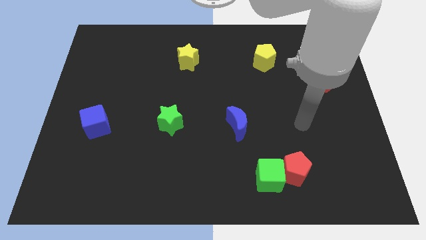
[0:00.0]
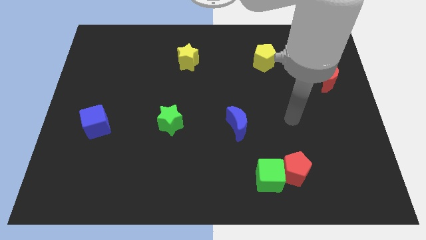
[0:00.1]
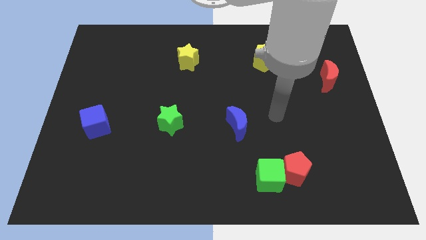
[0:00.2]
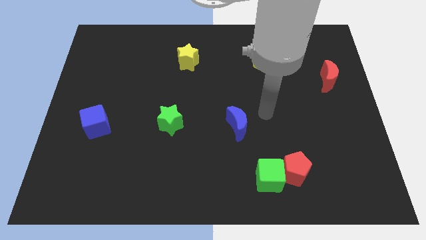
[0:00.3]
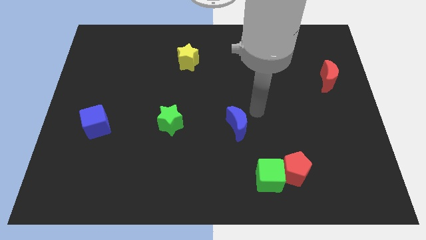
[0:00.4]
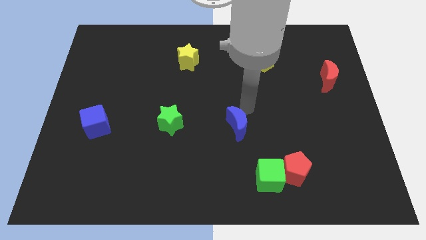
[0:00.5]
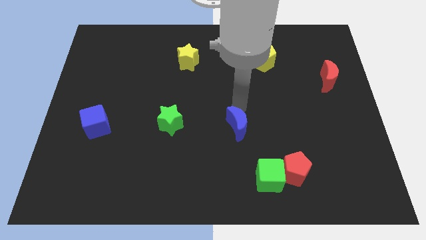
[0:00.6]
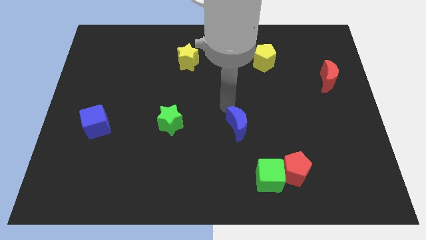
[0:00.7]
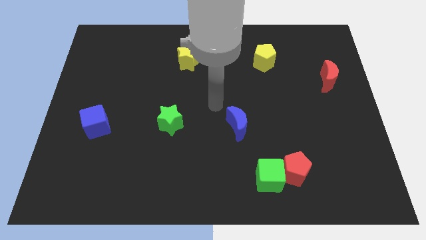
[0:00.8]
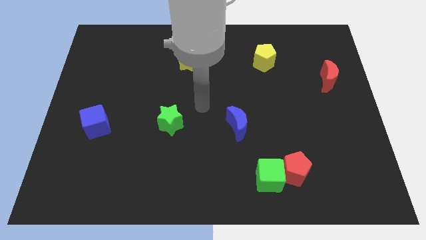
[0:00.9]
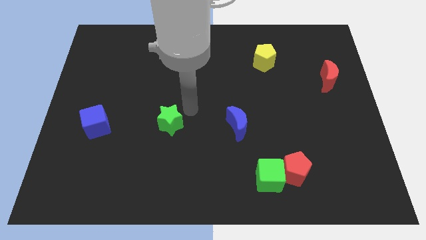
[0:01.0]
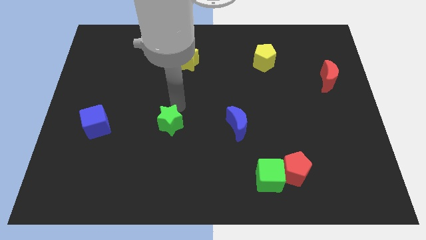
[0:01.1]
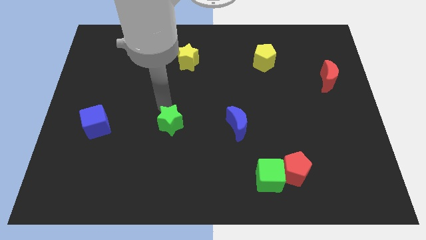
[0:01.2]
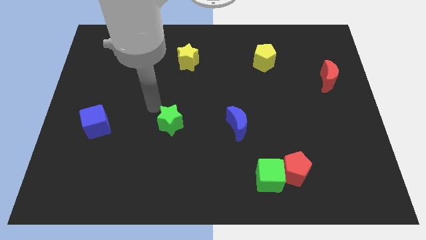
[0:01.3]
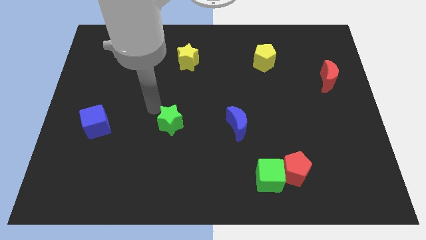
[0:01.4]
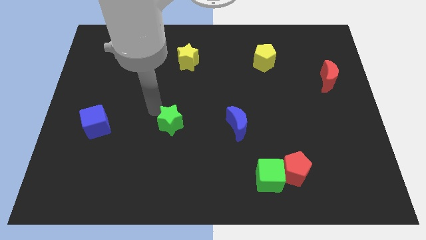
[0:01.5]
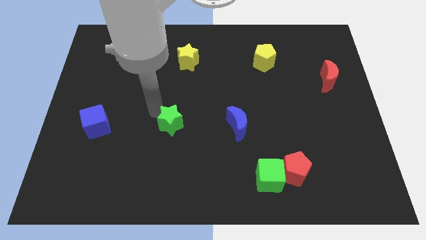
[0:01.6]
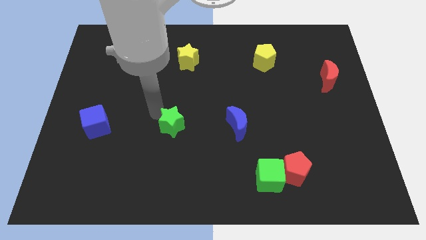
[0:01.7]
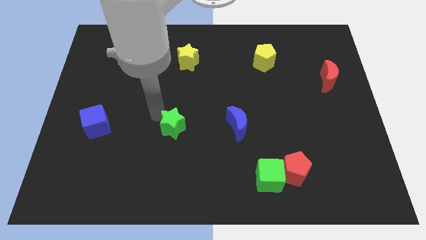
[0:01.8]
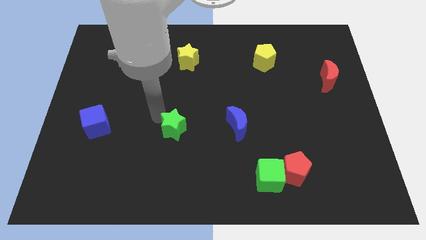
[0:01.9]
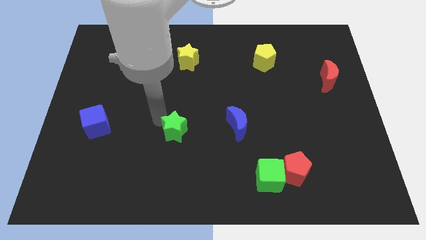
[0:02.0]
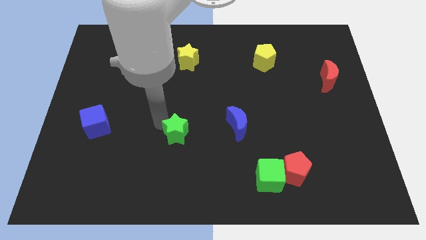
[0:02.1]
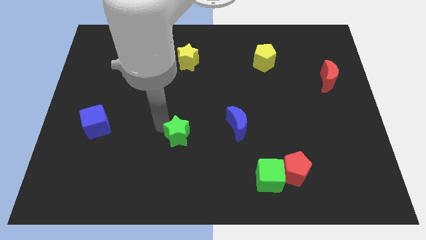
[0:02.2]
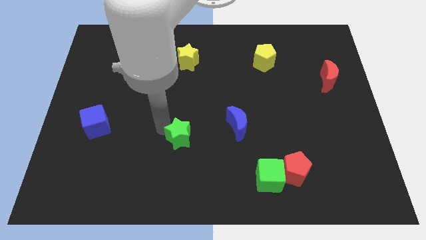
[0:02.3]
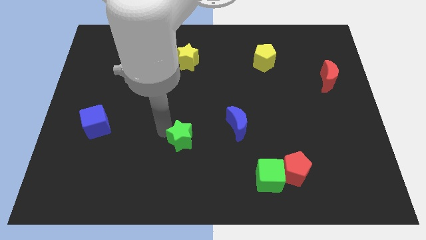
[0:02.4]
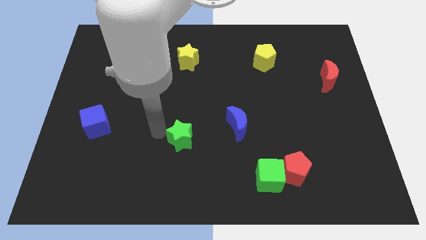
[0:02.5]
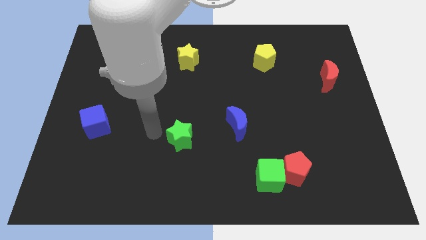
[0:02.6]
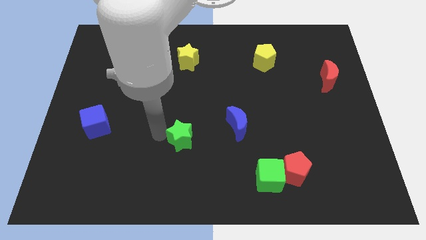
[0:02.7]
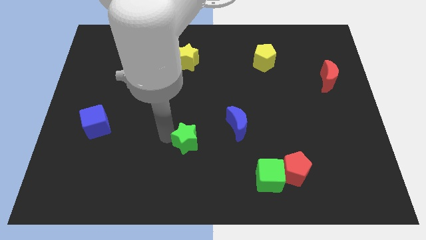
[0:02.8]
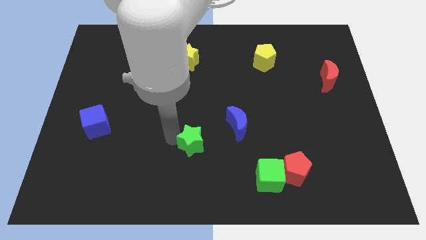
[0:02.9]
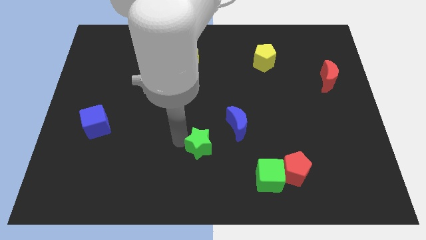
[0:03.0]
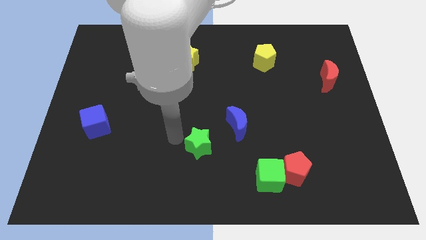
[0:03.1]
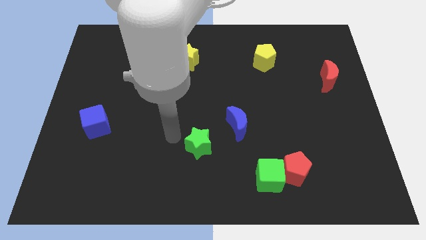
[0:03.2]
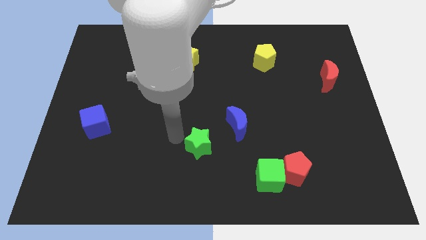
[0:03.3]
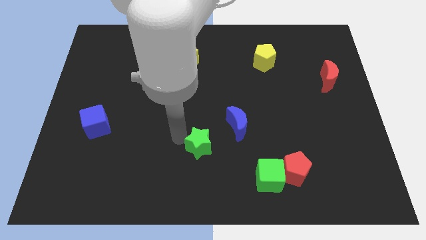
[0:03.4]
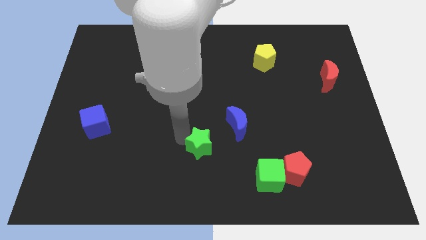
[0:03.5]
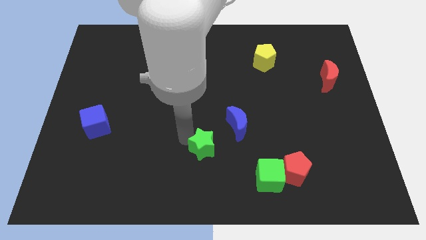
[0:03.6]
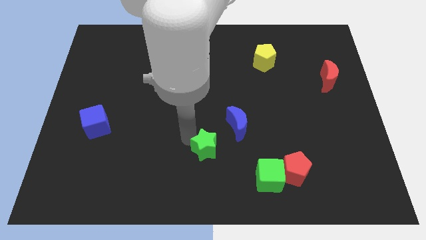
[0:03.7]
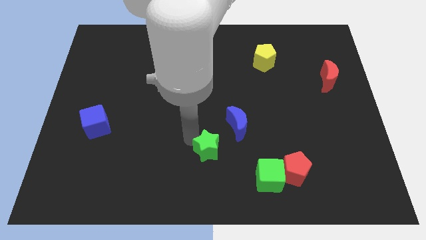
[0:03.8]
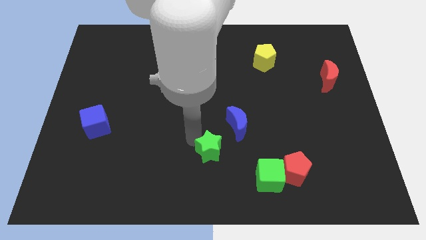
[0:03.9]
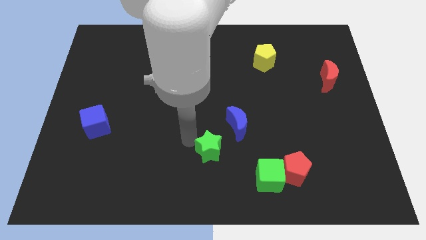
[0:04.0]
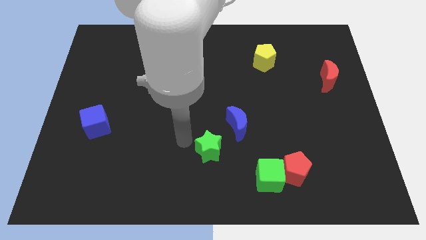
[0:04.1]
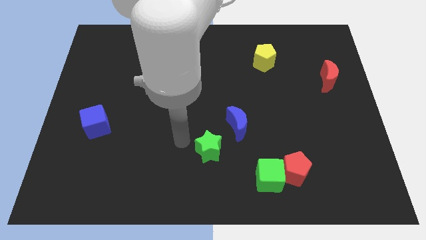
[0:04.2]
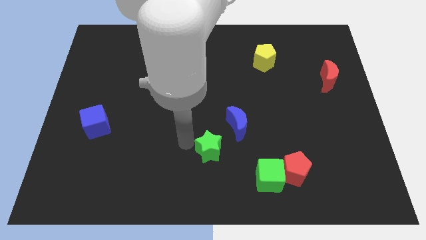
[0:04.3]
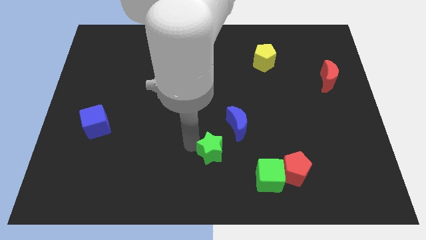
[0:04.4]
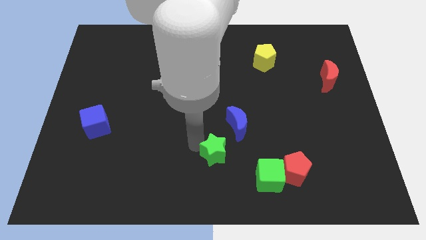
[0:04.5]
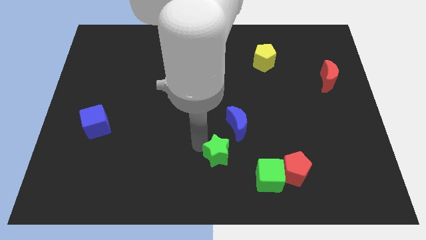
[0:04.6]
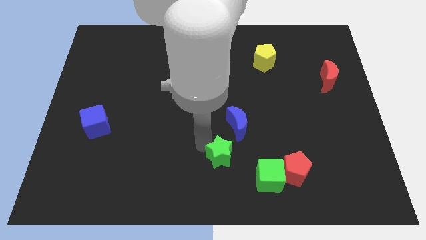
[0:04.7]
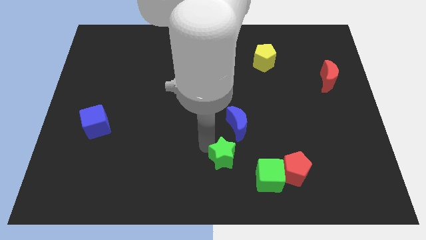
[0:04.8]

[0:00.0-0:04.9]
put the green star to the left side of the red pentagon

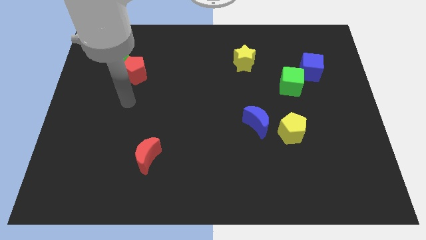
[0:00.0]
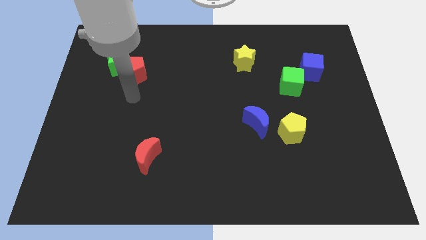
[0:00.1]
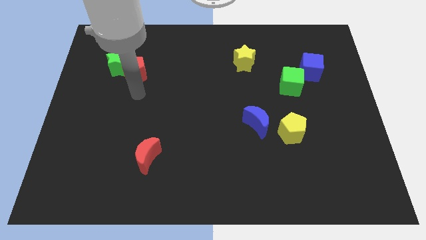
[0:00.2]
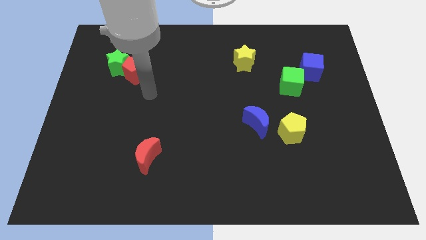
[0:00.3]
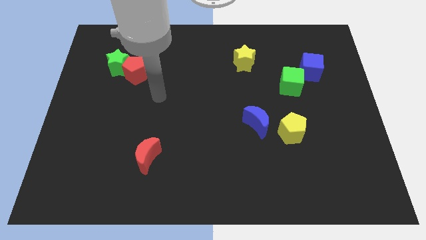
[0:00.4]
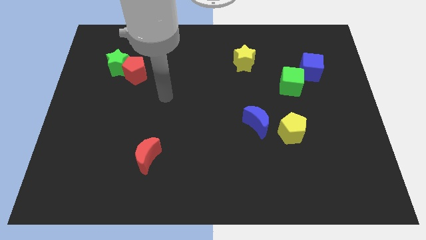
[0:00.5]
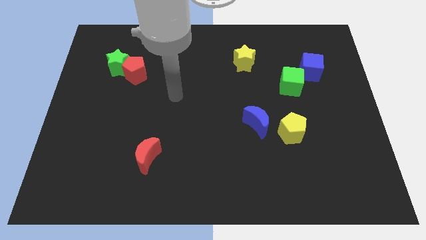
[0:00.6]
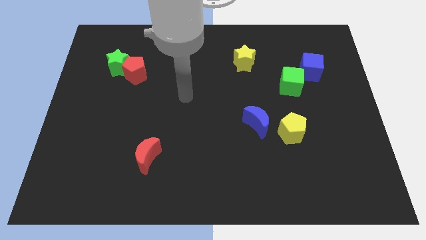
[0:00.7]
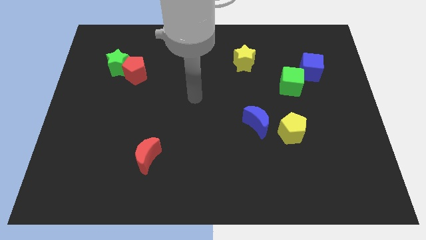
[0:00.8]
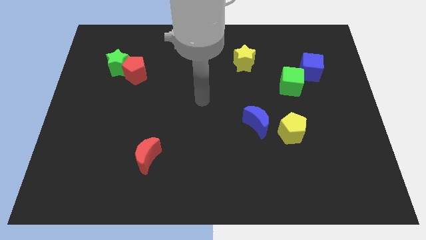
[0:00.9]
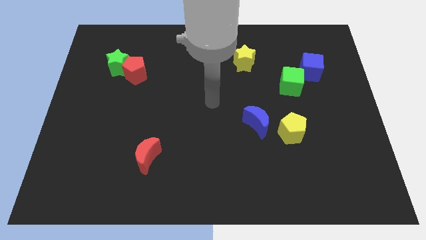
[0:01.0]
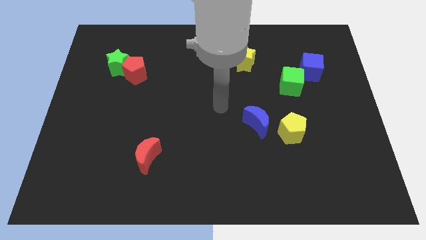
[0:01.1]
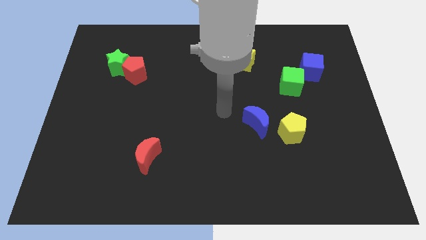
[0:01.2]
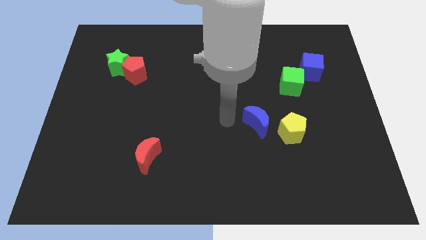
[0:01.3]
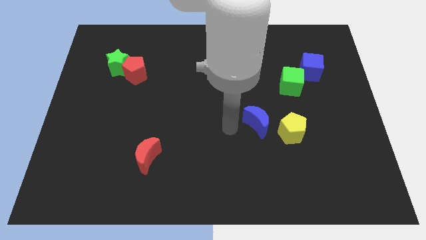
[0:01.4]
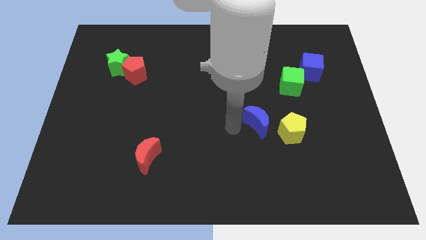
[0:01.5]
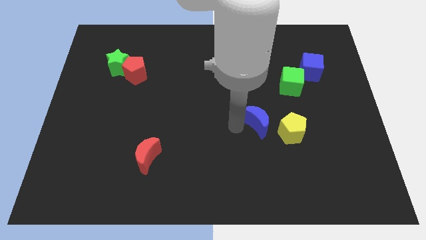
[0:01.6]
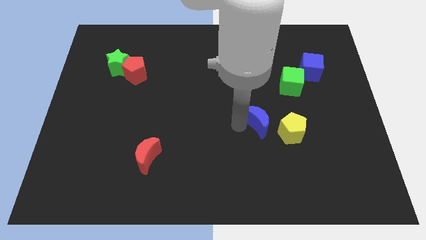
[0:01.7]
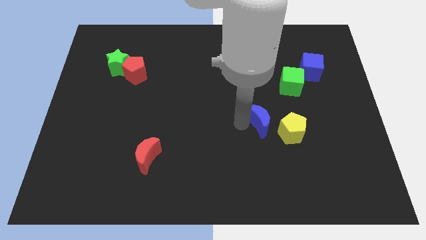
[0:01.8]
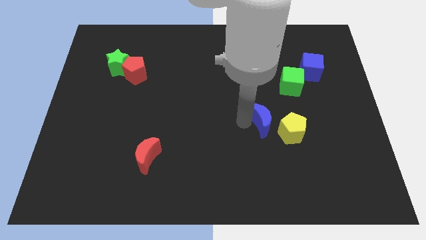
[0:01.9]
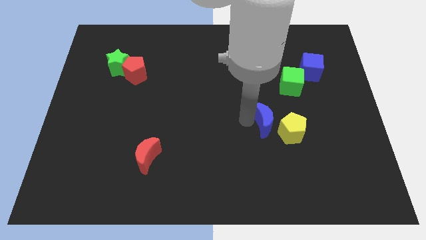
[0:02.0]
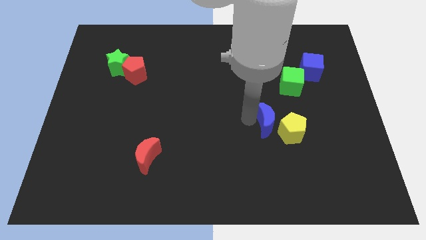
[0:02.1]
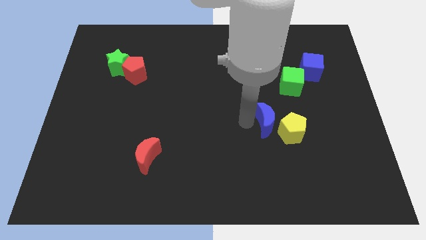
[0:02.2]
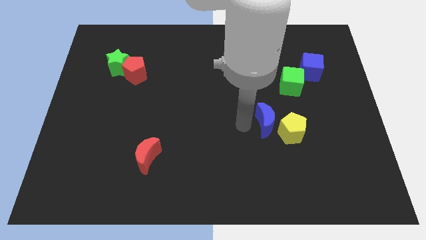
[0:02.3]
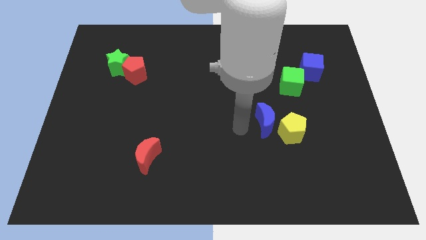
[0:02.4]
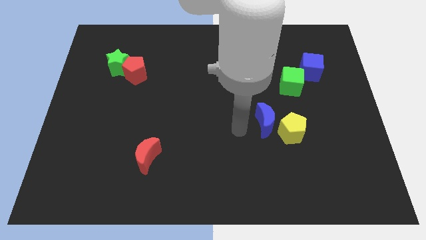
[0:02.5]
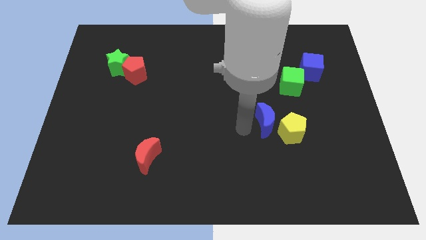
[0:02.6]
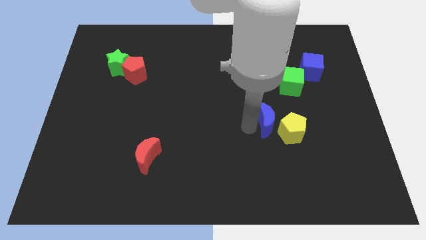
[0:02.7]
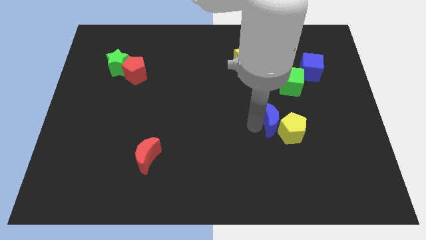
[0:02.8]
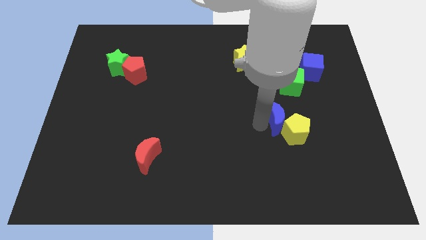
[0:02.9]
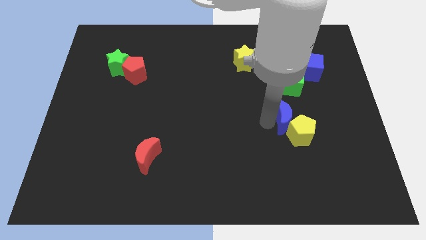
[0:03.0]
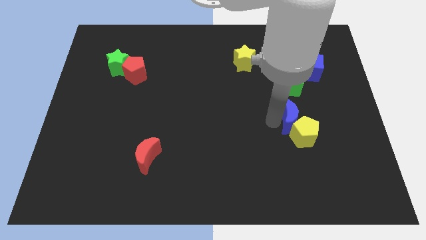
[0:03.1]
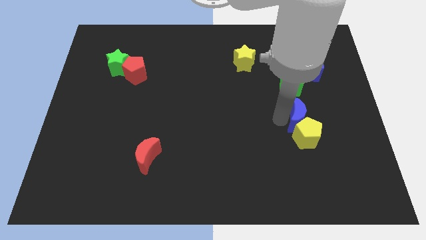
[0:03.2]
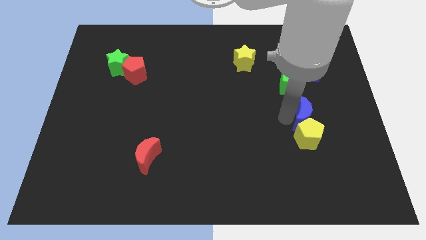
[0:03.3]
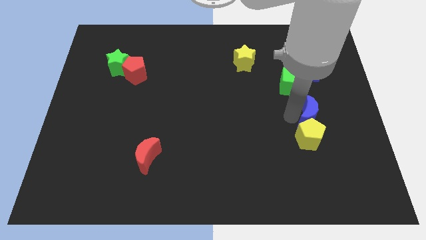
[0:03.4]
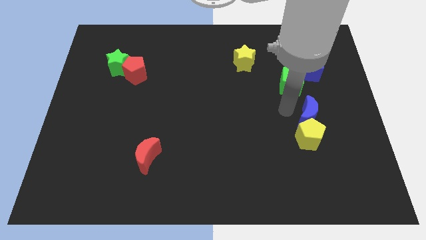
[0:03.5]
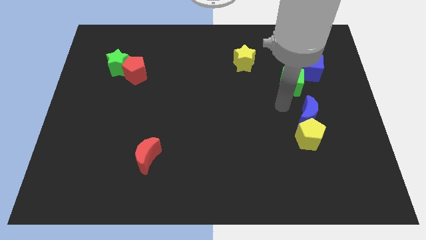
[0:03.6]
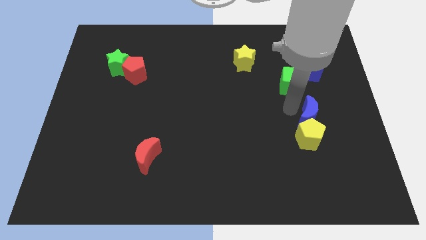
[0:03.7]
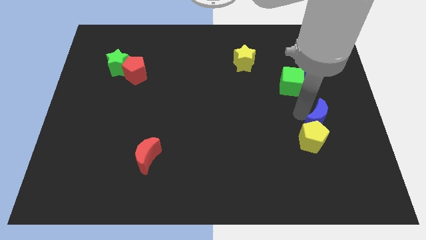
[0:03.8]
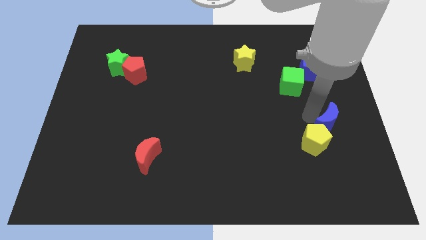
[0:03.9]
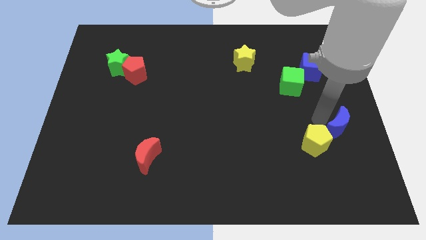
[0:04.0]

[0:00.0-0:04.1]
slide the blue moon to the right of the yellow pentagon
